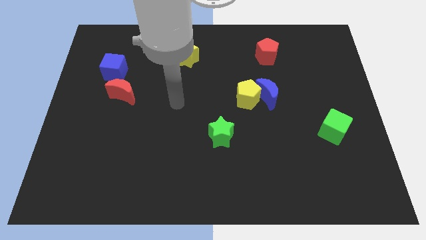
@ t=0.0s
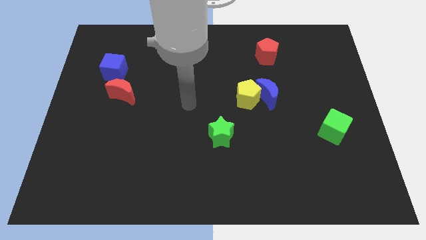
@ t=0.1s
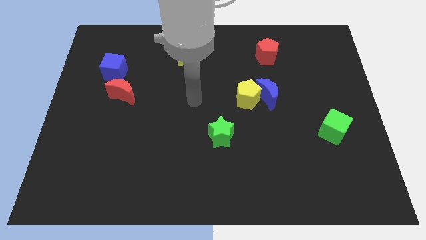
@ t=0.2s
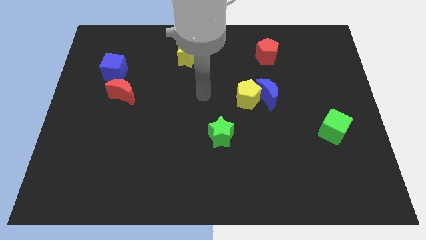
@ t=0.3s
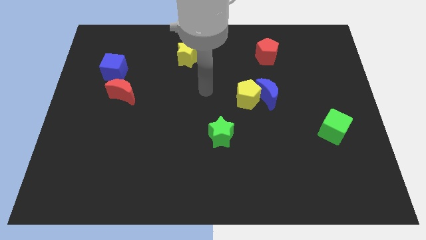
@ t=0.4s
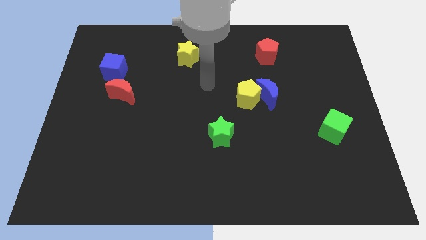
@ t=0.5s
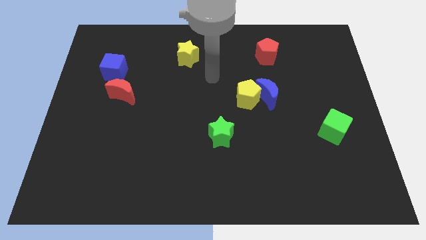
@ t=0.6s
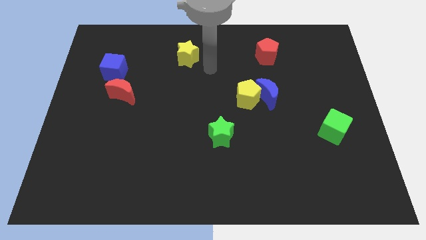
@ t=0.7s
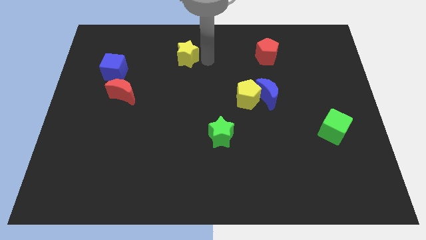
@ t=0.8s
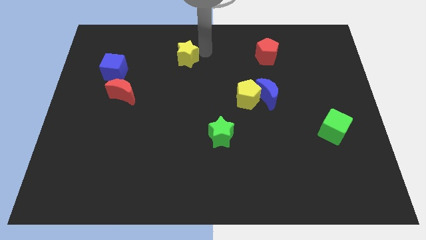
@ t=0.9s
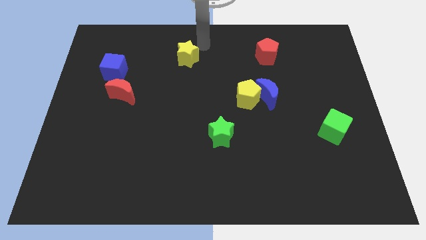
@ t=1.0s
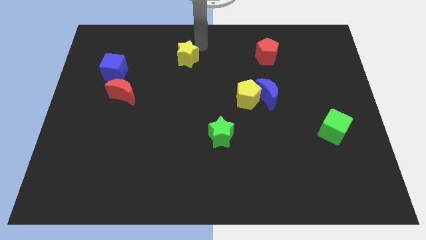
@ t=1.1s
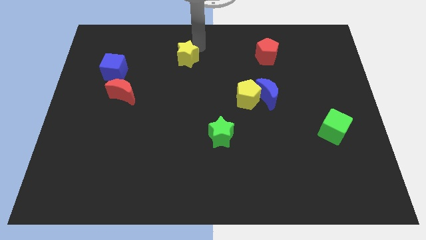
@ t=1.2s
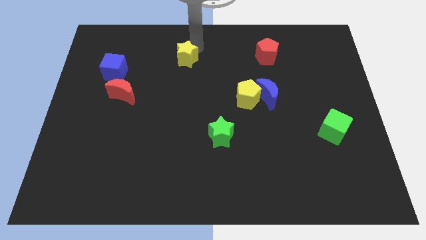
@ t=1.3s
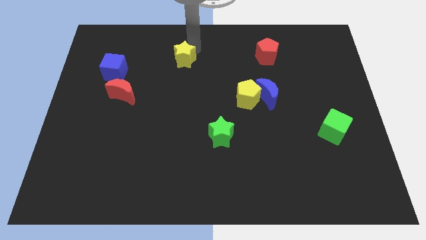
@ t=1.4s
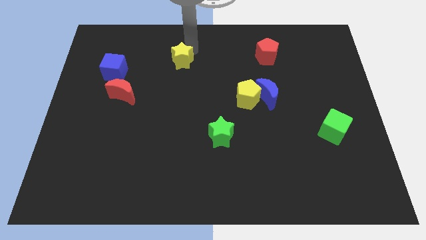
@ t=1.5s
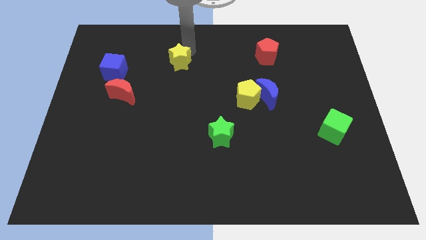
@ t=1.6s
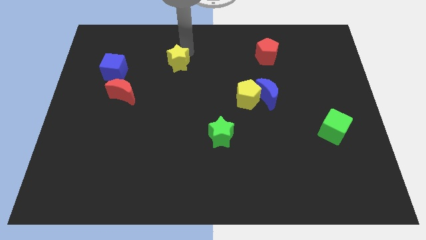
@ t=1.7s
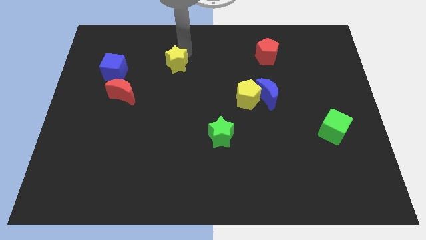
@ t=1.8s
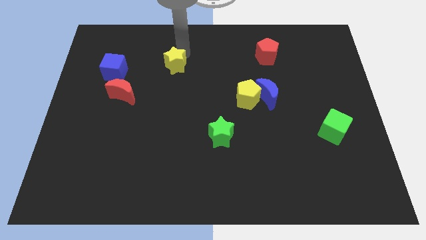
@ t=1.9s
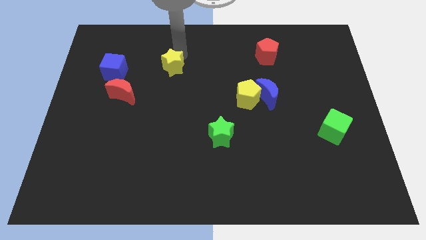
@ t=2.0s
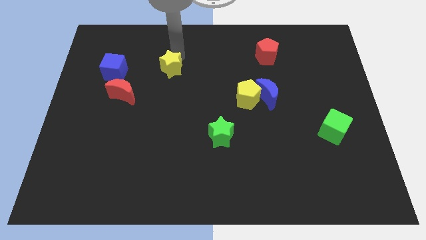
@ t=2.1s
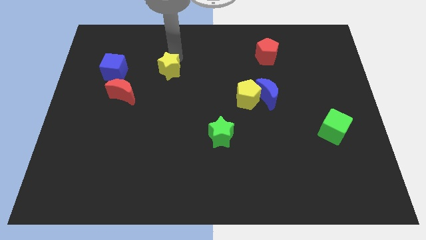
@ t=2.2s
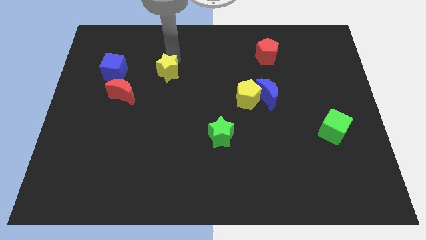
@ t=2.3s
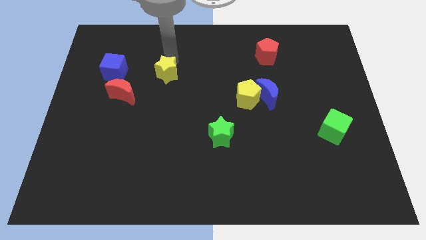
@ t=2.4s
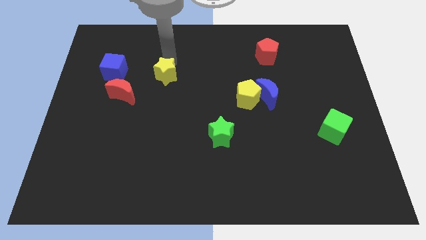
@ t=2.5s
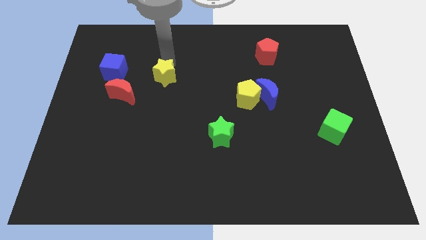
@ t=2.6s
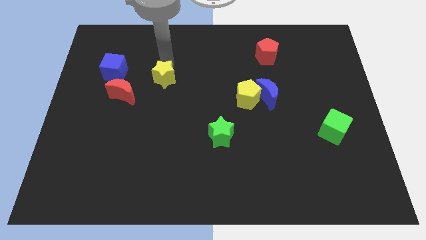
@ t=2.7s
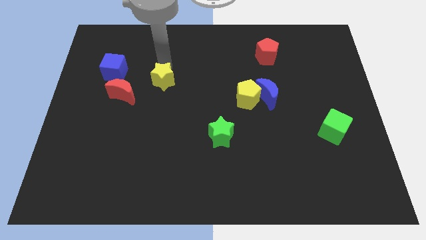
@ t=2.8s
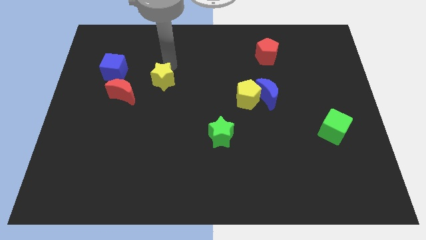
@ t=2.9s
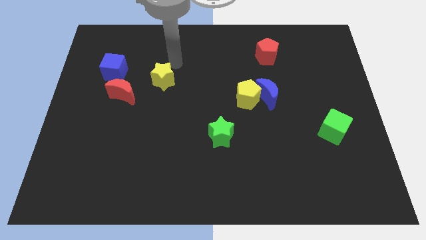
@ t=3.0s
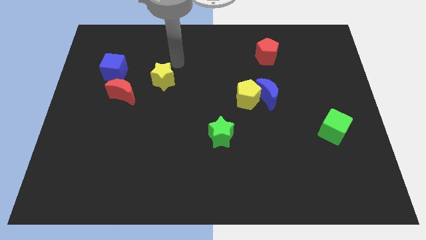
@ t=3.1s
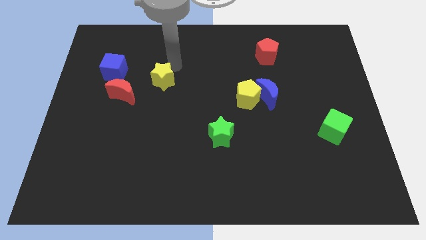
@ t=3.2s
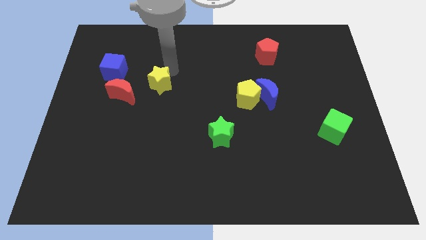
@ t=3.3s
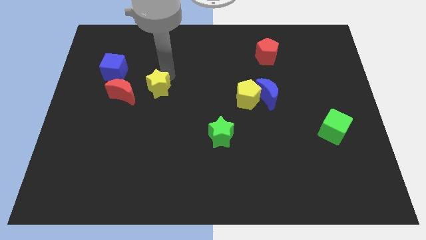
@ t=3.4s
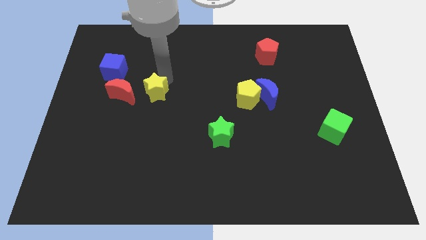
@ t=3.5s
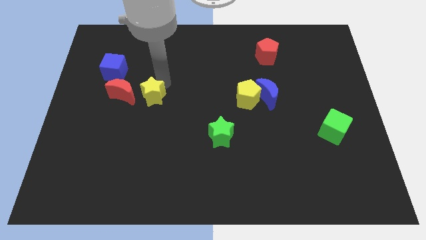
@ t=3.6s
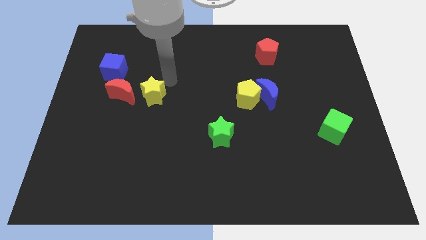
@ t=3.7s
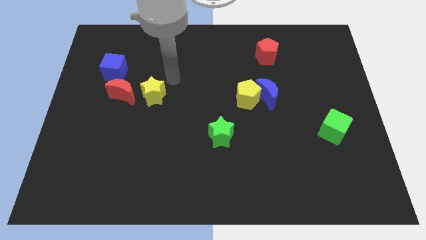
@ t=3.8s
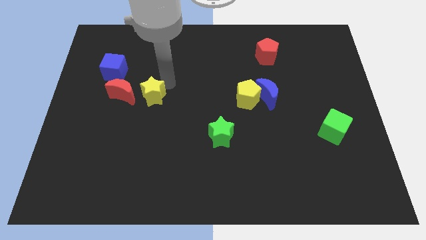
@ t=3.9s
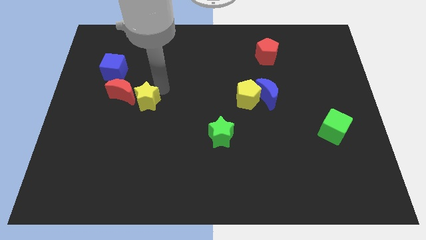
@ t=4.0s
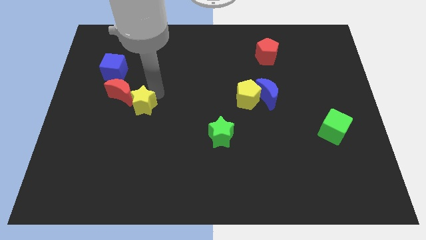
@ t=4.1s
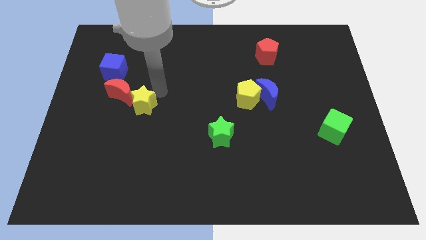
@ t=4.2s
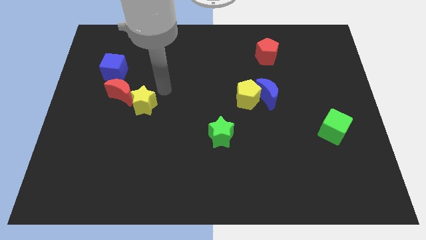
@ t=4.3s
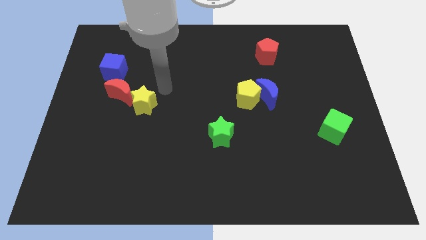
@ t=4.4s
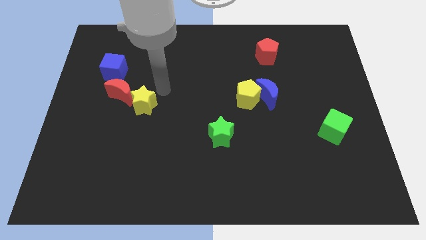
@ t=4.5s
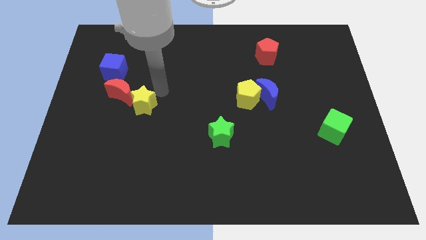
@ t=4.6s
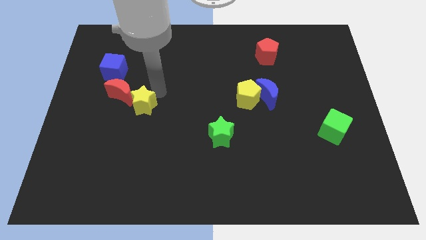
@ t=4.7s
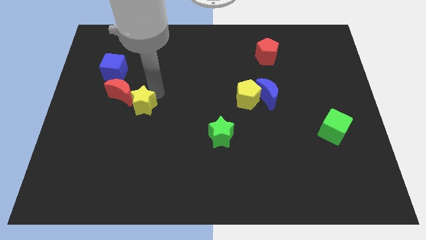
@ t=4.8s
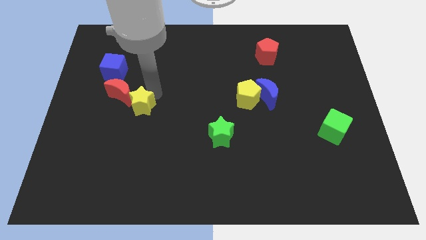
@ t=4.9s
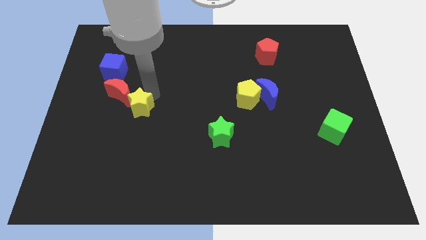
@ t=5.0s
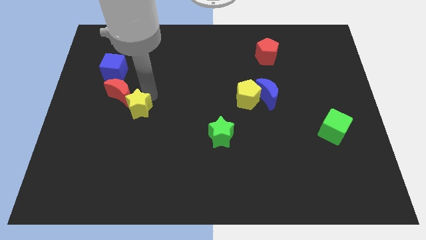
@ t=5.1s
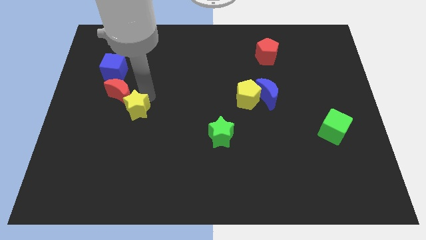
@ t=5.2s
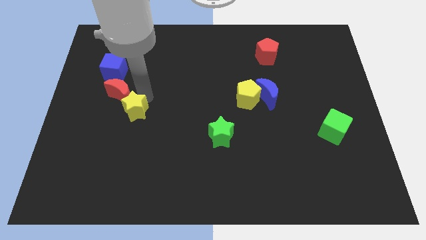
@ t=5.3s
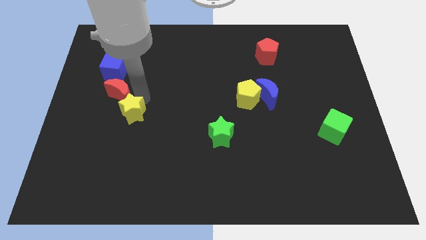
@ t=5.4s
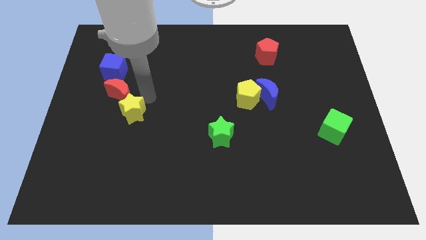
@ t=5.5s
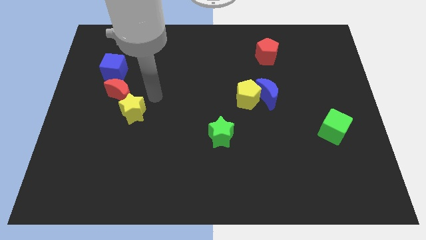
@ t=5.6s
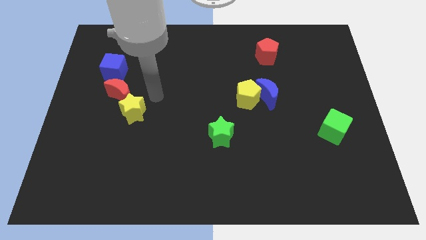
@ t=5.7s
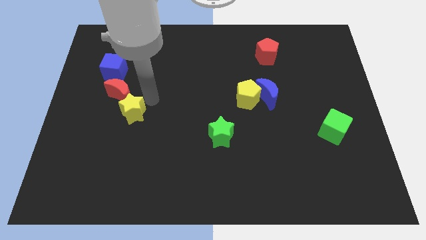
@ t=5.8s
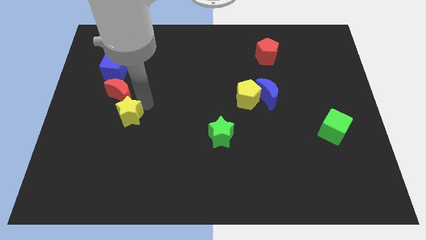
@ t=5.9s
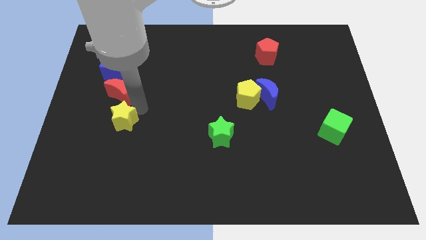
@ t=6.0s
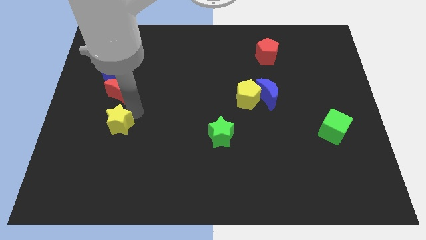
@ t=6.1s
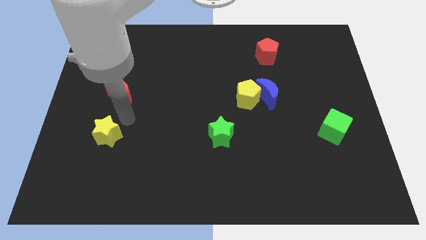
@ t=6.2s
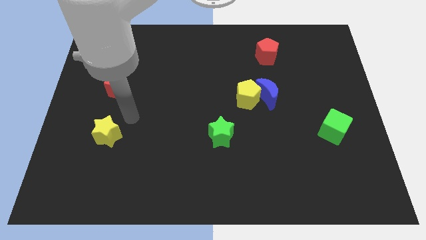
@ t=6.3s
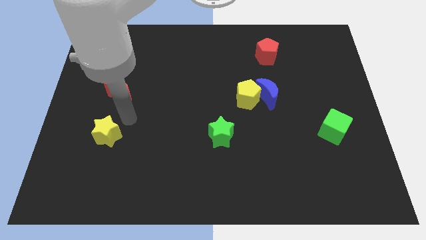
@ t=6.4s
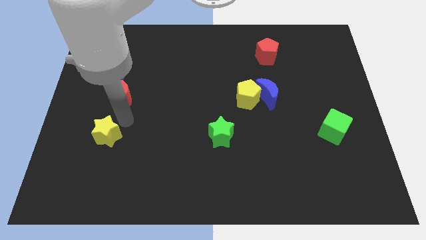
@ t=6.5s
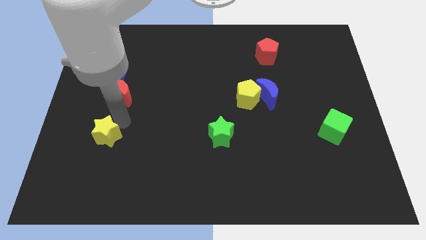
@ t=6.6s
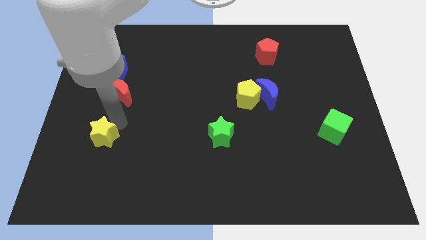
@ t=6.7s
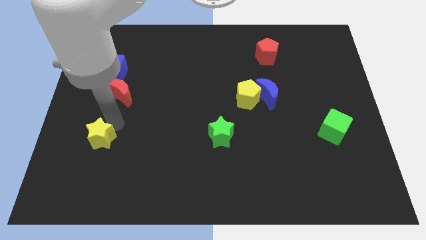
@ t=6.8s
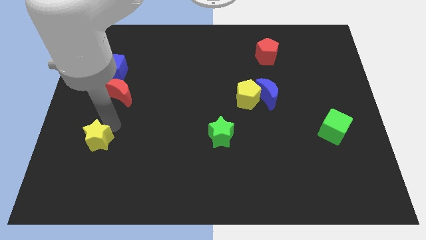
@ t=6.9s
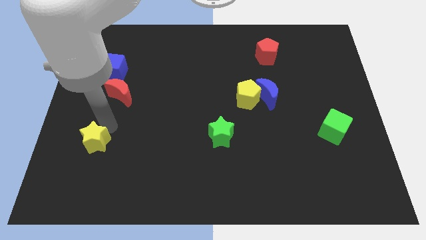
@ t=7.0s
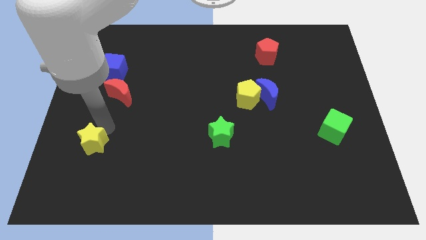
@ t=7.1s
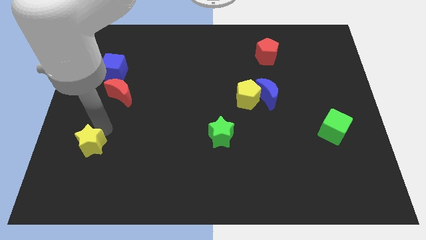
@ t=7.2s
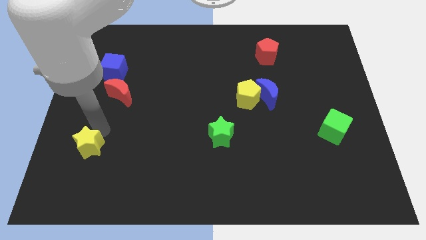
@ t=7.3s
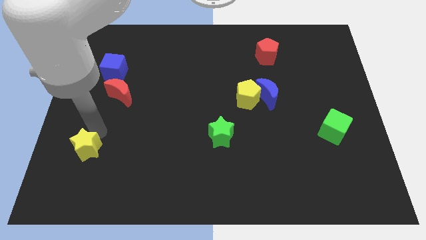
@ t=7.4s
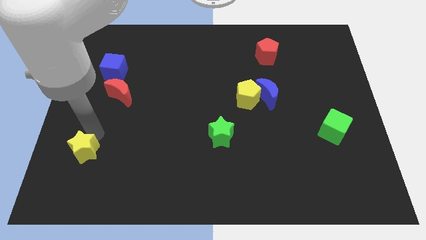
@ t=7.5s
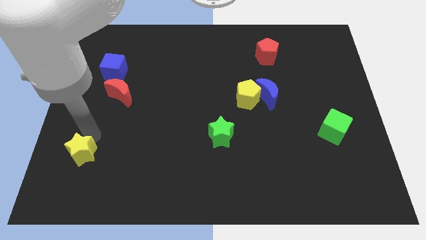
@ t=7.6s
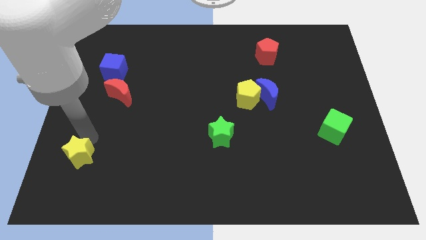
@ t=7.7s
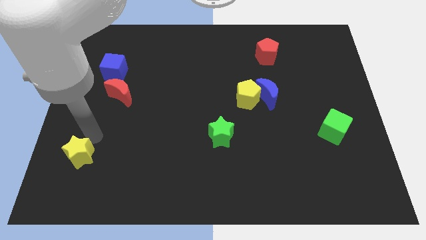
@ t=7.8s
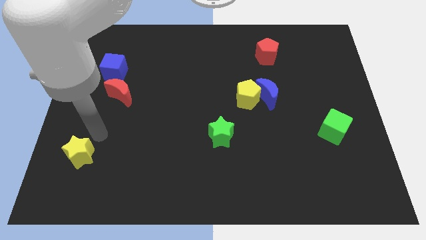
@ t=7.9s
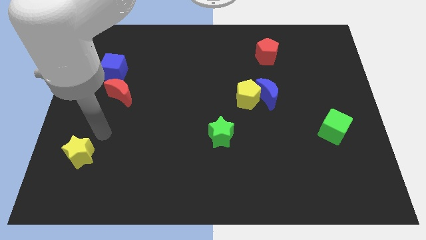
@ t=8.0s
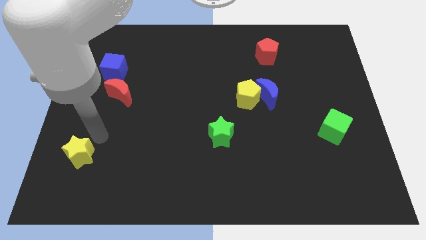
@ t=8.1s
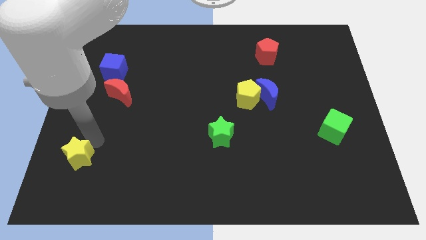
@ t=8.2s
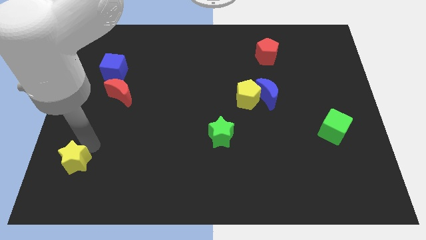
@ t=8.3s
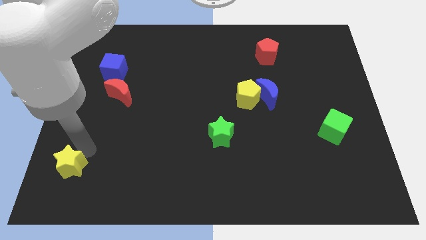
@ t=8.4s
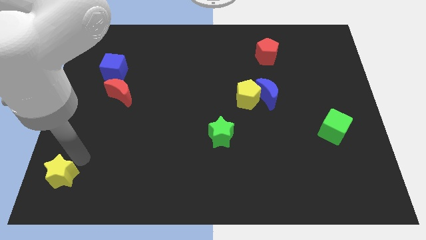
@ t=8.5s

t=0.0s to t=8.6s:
put the yellow star to the bottom left
